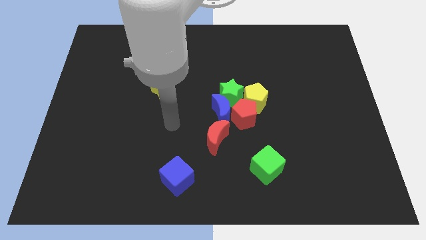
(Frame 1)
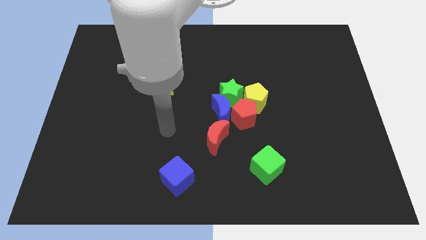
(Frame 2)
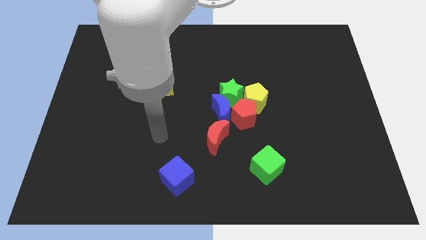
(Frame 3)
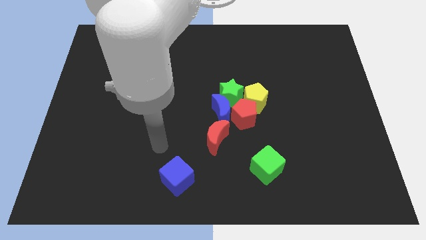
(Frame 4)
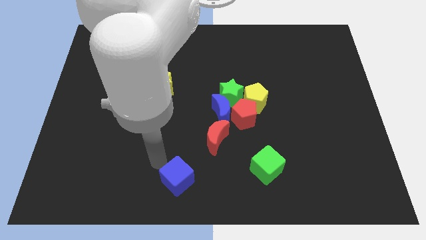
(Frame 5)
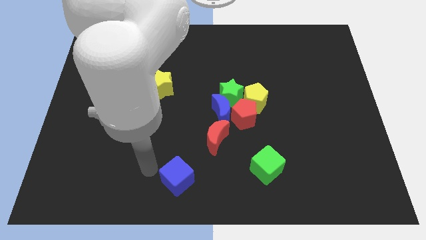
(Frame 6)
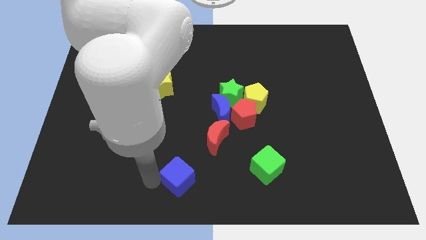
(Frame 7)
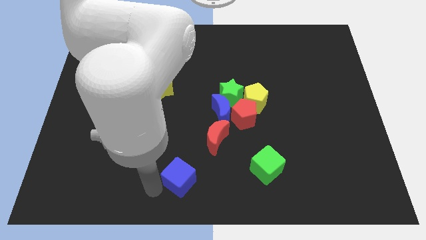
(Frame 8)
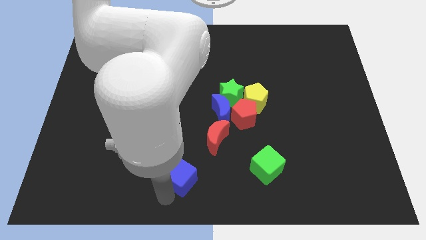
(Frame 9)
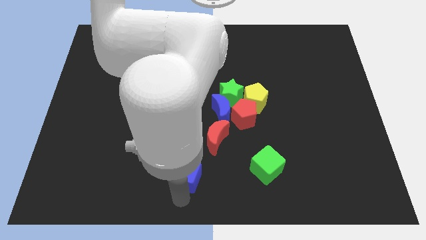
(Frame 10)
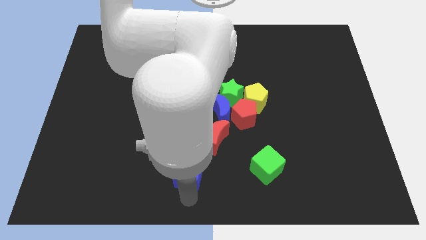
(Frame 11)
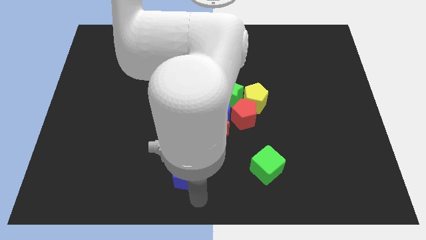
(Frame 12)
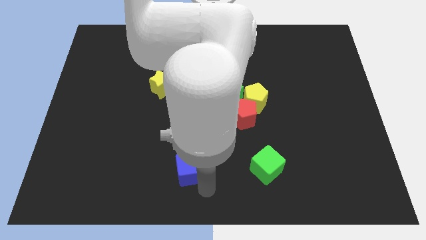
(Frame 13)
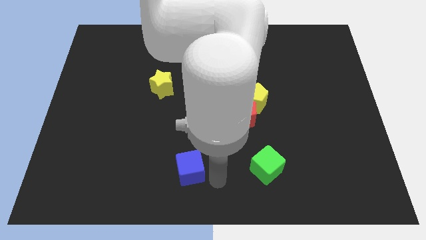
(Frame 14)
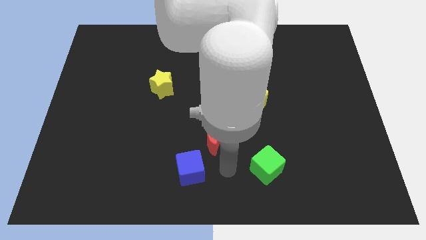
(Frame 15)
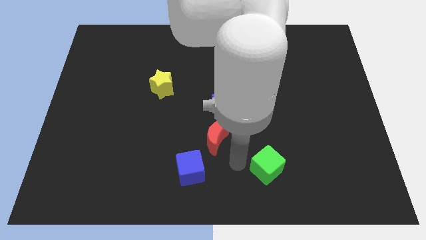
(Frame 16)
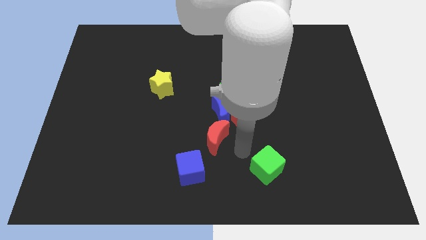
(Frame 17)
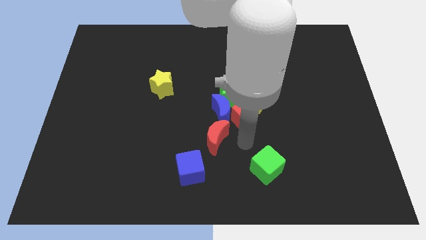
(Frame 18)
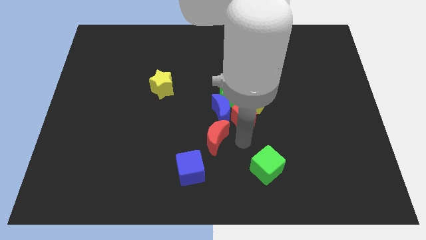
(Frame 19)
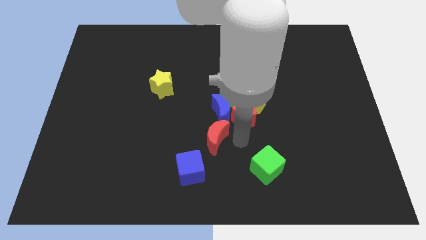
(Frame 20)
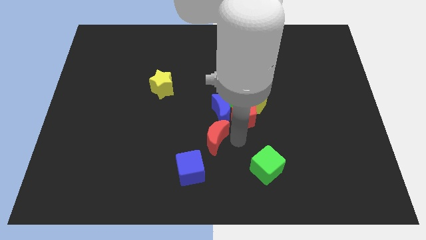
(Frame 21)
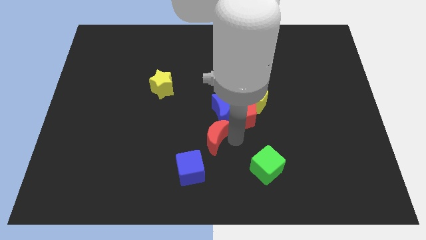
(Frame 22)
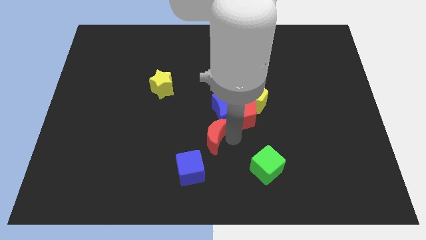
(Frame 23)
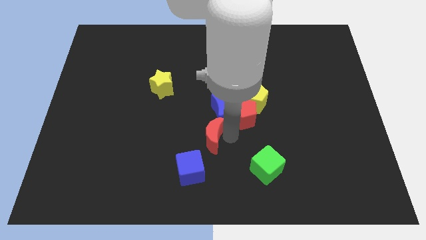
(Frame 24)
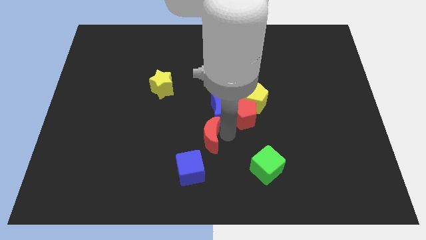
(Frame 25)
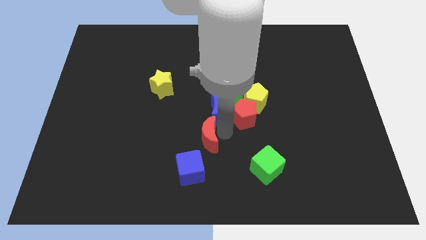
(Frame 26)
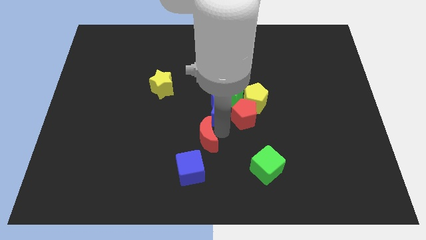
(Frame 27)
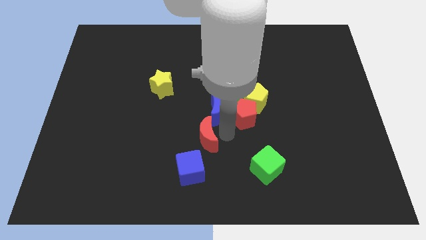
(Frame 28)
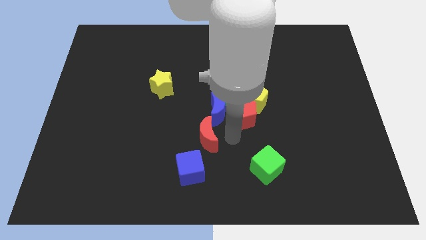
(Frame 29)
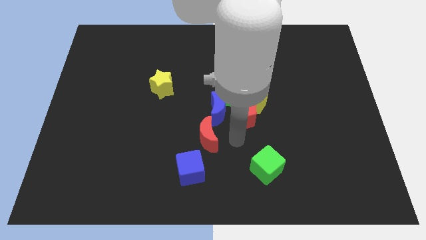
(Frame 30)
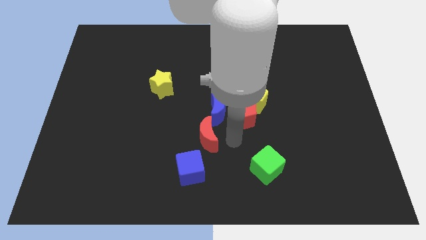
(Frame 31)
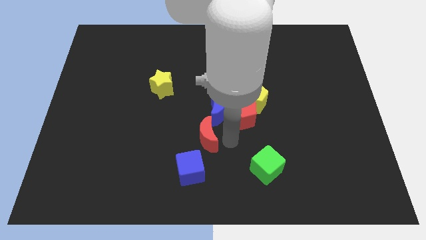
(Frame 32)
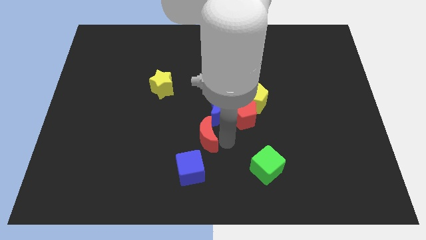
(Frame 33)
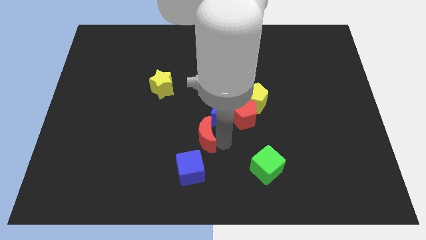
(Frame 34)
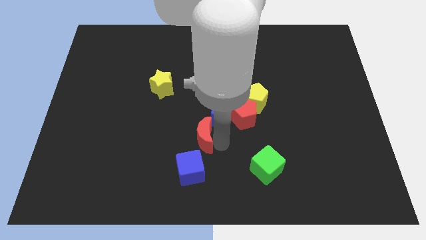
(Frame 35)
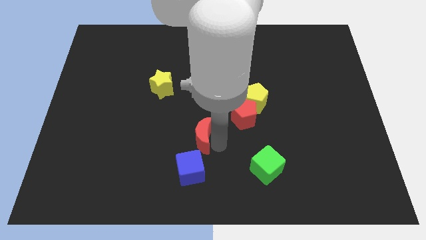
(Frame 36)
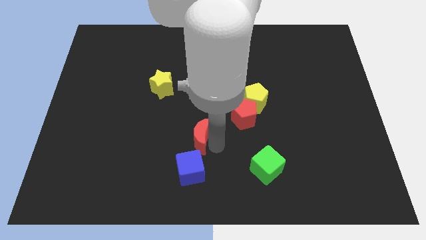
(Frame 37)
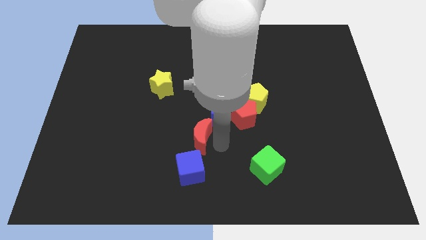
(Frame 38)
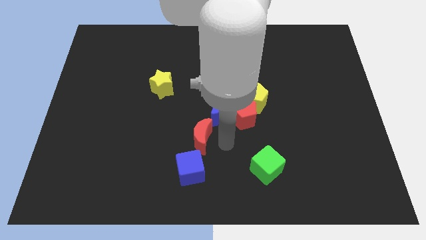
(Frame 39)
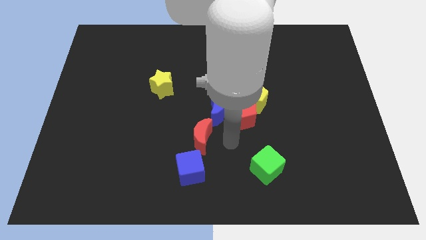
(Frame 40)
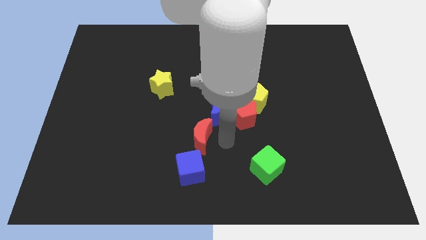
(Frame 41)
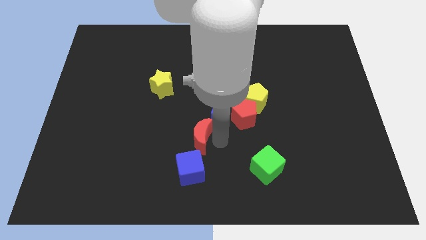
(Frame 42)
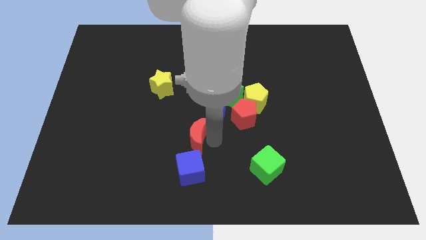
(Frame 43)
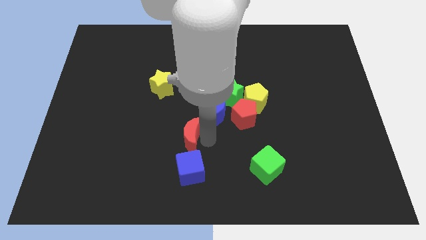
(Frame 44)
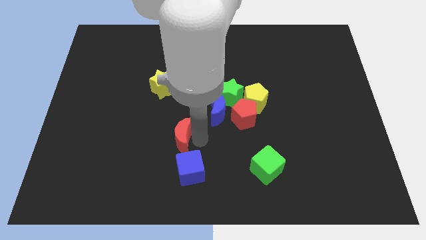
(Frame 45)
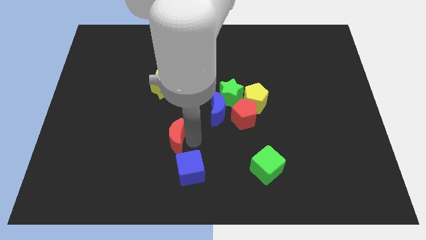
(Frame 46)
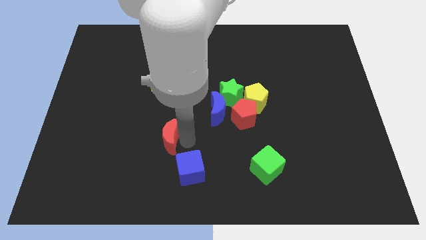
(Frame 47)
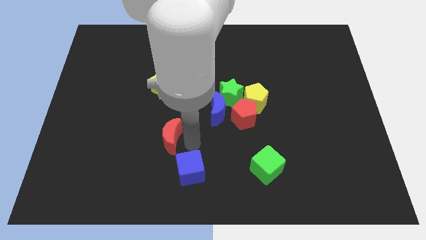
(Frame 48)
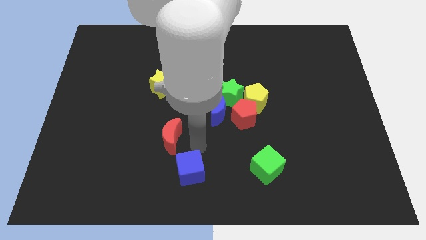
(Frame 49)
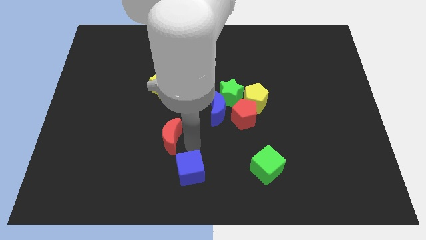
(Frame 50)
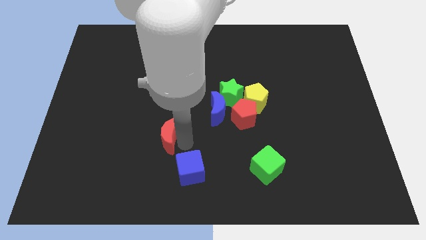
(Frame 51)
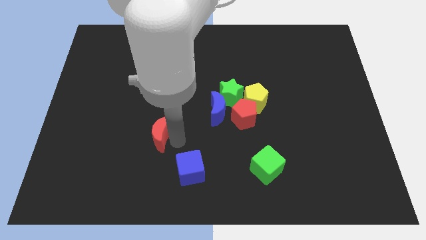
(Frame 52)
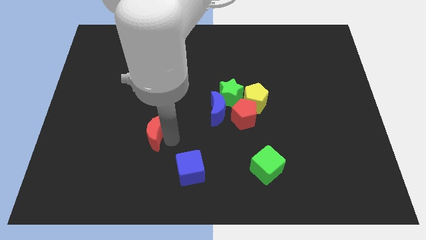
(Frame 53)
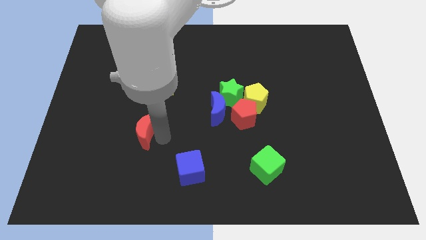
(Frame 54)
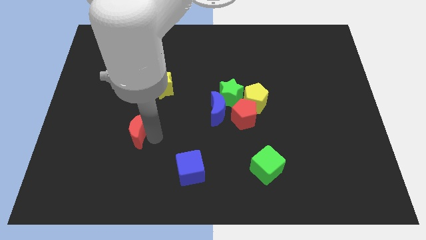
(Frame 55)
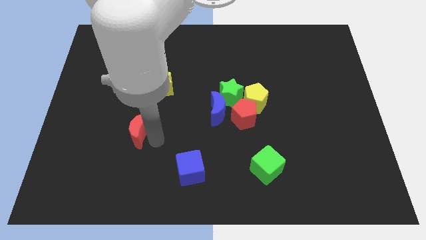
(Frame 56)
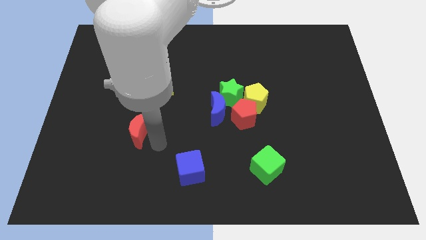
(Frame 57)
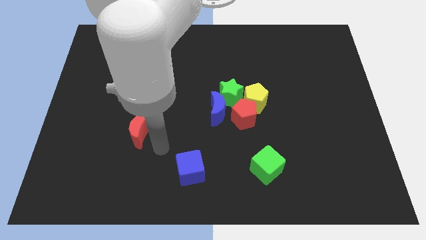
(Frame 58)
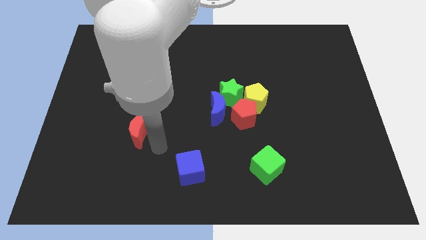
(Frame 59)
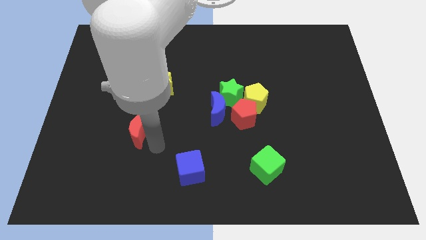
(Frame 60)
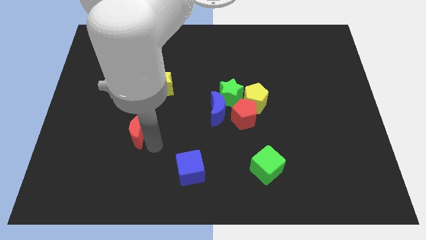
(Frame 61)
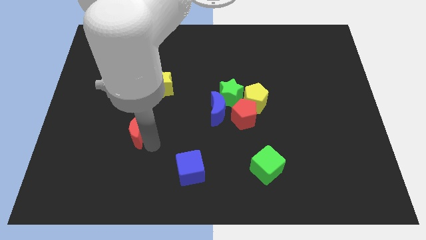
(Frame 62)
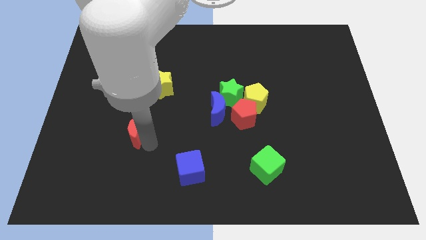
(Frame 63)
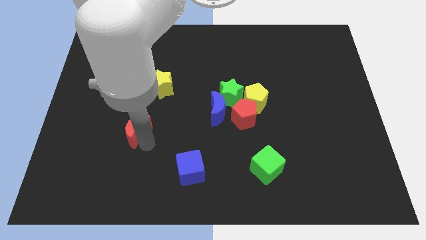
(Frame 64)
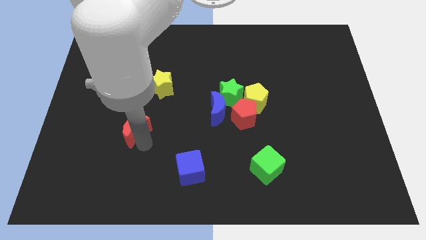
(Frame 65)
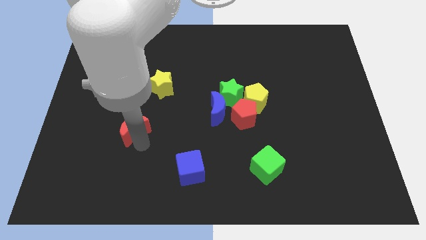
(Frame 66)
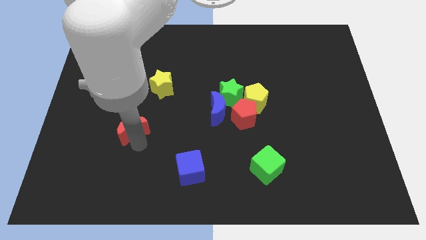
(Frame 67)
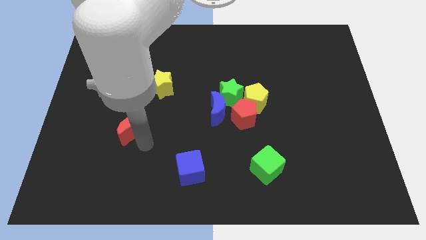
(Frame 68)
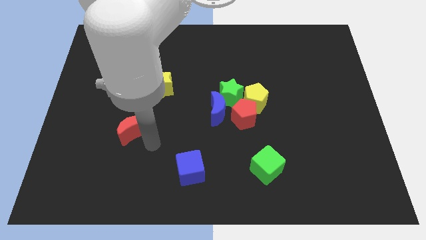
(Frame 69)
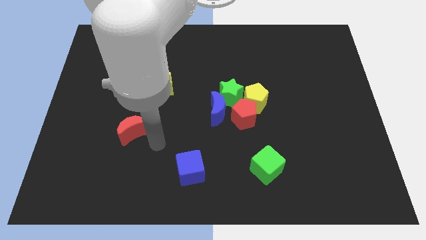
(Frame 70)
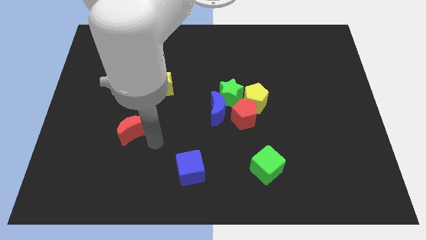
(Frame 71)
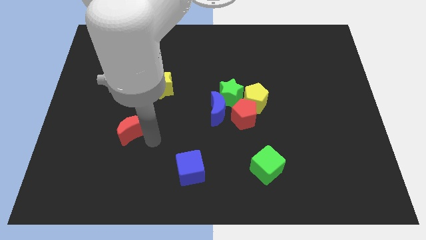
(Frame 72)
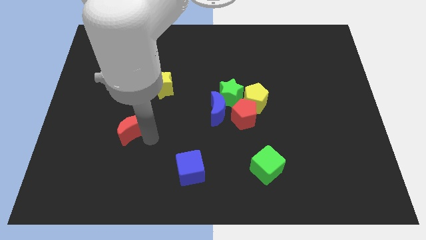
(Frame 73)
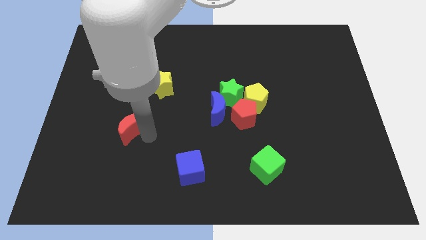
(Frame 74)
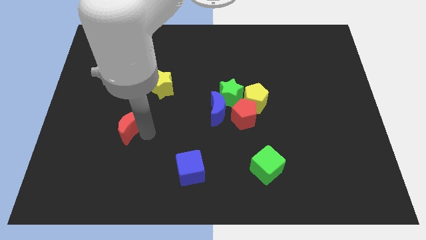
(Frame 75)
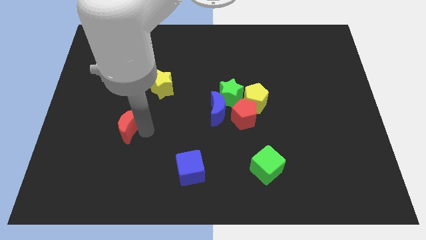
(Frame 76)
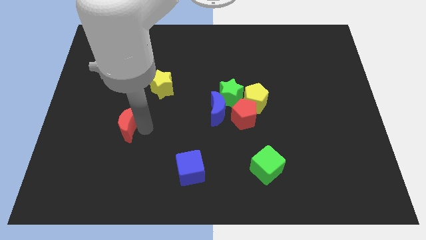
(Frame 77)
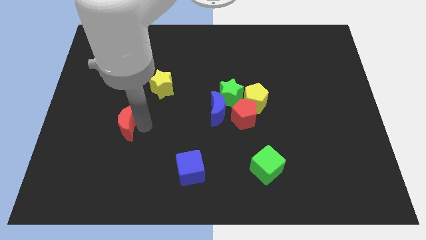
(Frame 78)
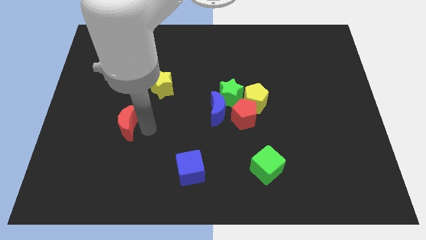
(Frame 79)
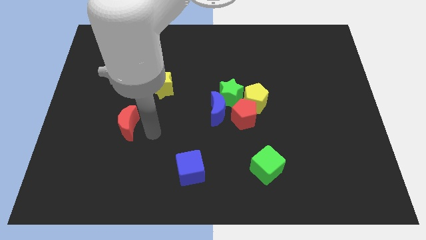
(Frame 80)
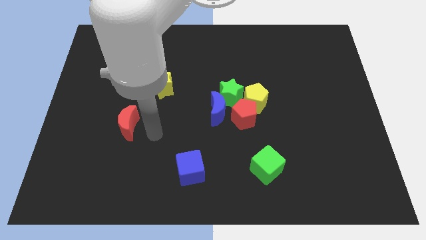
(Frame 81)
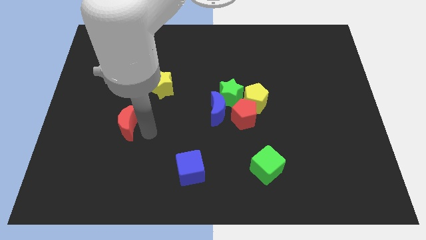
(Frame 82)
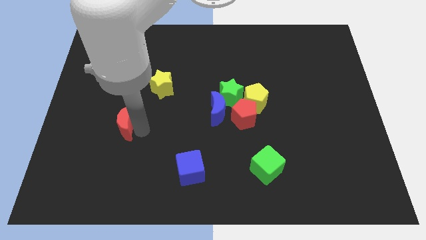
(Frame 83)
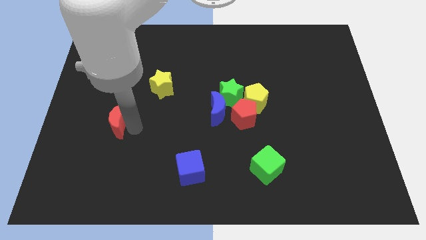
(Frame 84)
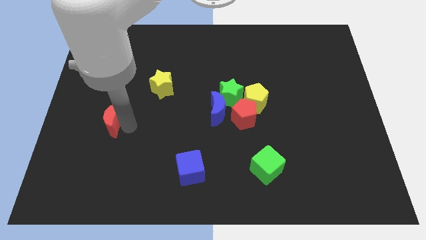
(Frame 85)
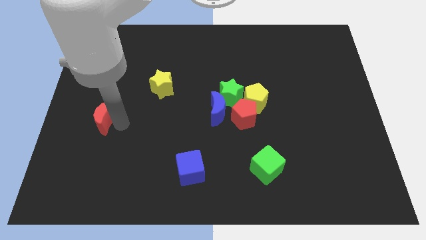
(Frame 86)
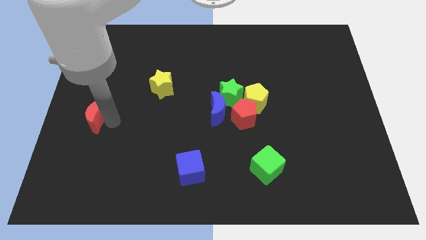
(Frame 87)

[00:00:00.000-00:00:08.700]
move the red moon to the left side
